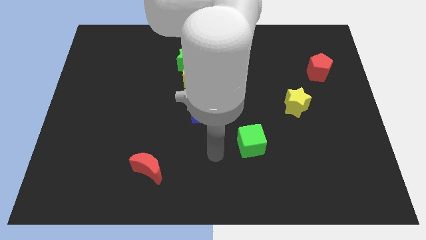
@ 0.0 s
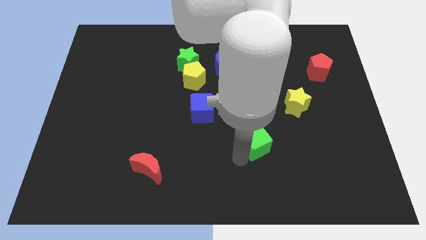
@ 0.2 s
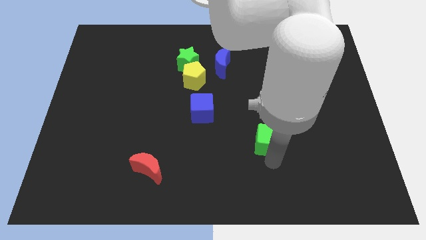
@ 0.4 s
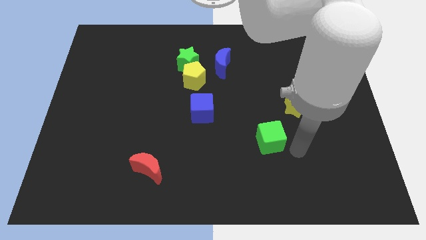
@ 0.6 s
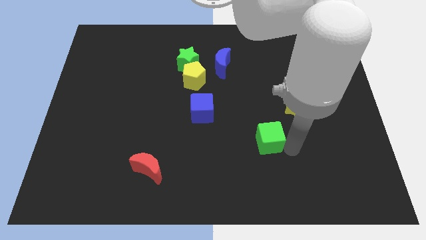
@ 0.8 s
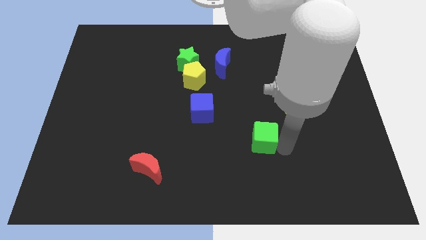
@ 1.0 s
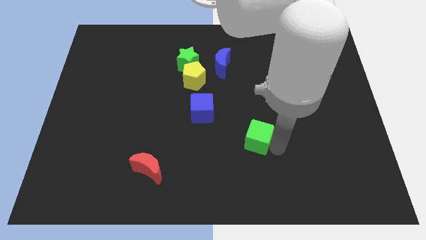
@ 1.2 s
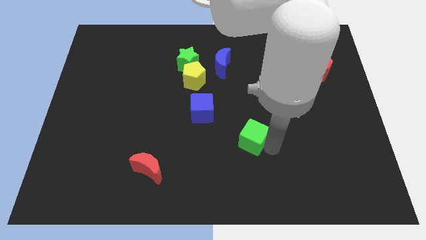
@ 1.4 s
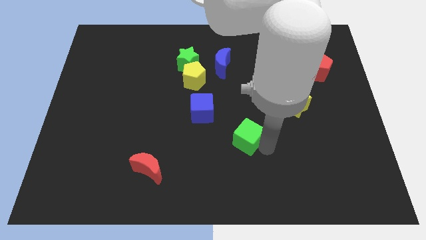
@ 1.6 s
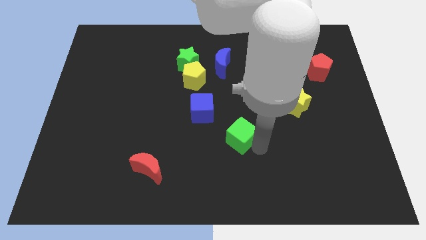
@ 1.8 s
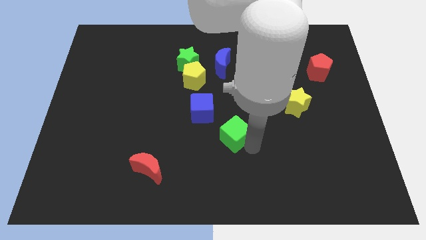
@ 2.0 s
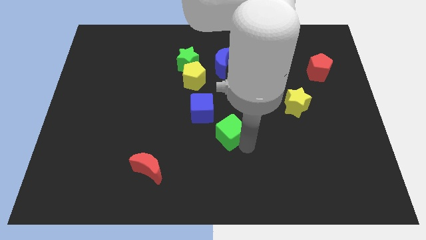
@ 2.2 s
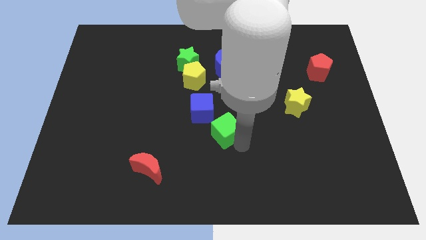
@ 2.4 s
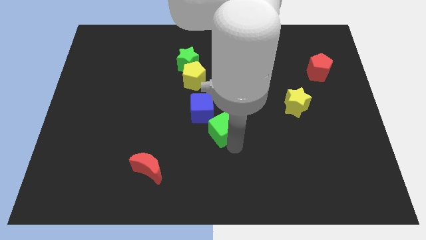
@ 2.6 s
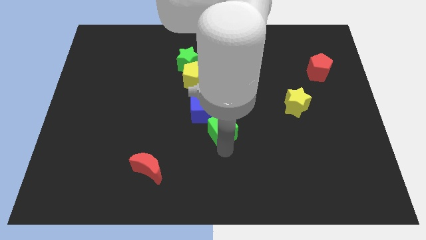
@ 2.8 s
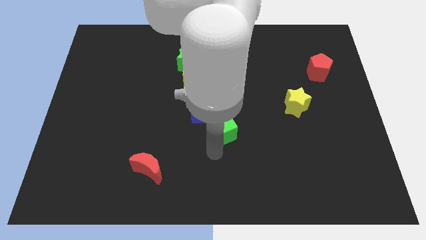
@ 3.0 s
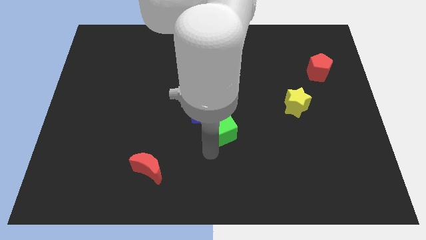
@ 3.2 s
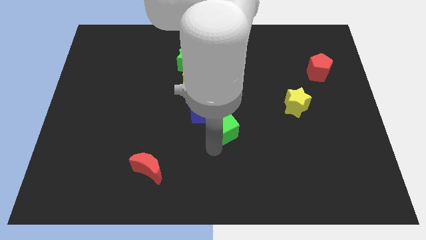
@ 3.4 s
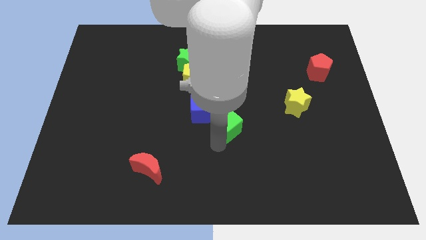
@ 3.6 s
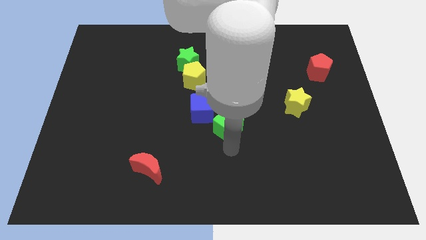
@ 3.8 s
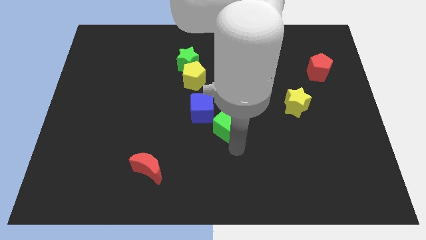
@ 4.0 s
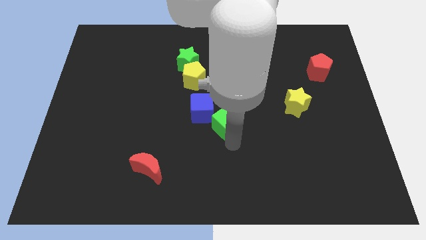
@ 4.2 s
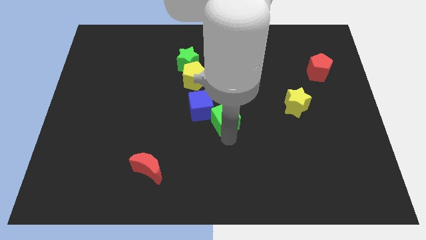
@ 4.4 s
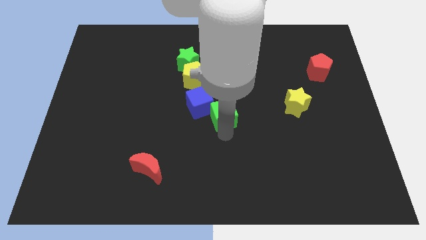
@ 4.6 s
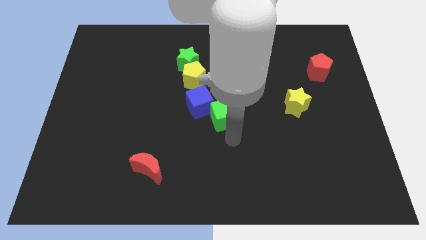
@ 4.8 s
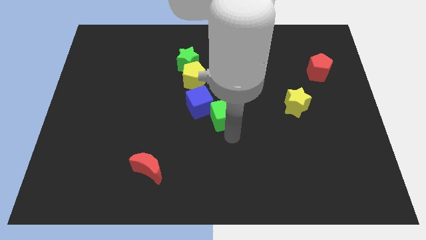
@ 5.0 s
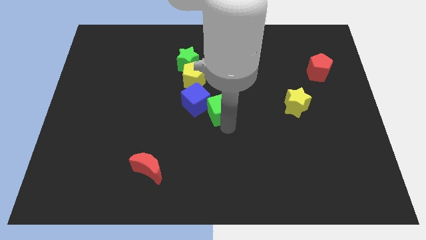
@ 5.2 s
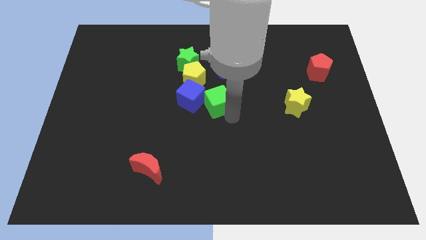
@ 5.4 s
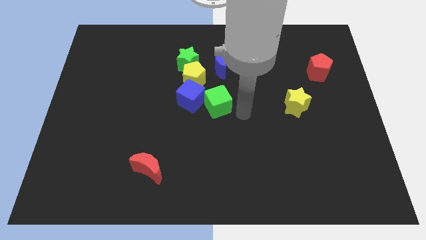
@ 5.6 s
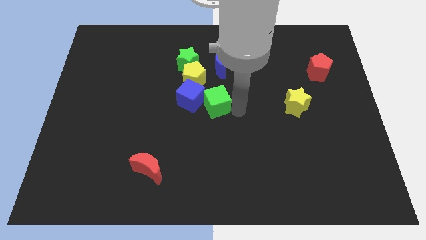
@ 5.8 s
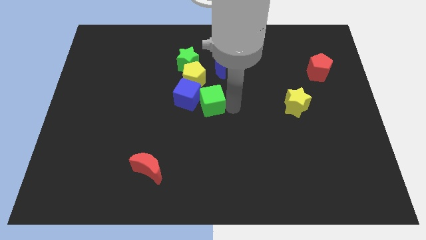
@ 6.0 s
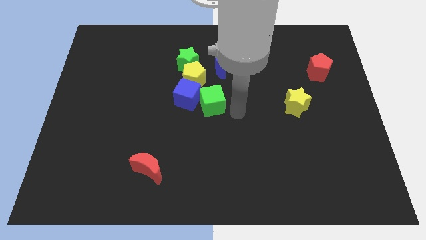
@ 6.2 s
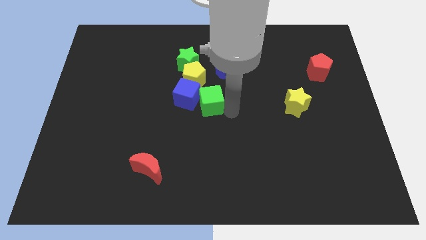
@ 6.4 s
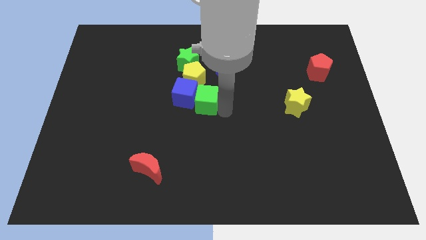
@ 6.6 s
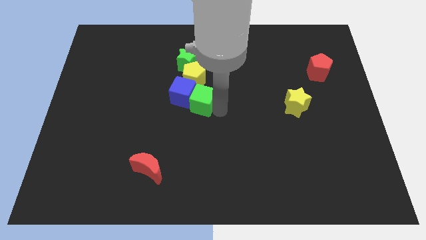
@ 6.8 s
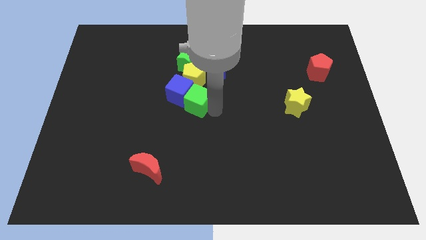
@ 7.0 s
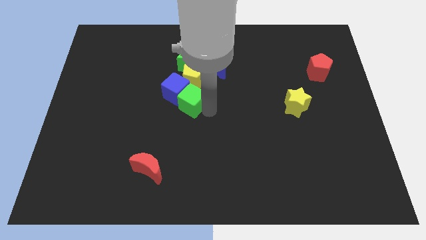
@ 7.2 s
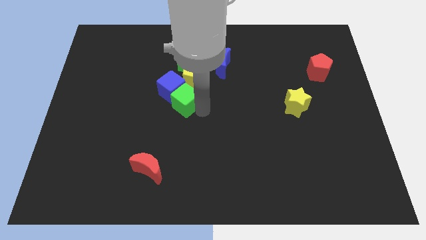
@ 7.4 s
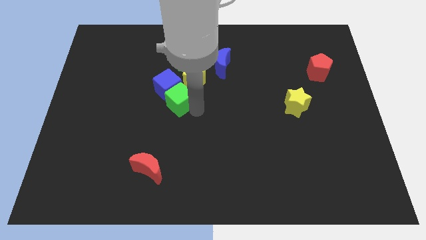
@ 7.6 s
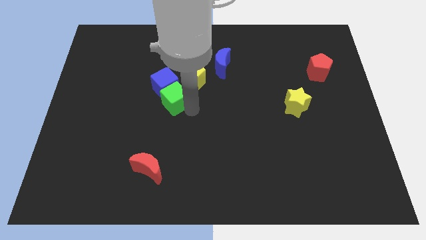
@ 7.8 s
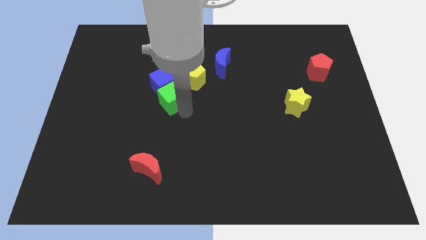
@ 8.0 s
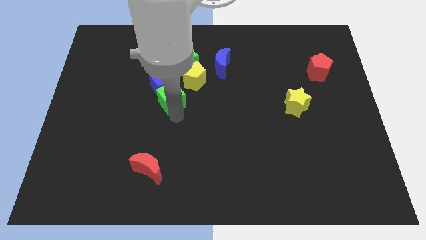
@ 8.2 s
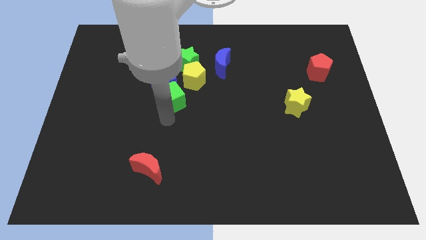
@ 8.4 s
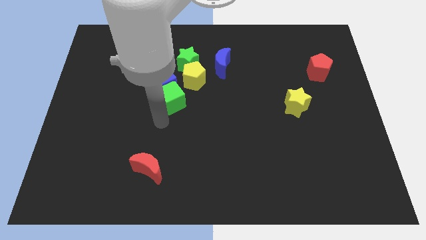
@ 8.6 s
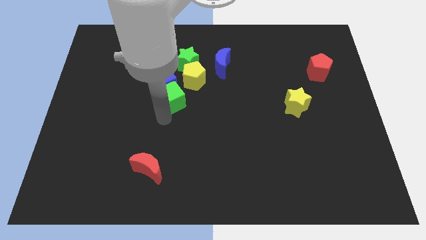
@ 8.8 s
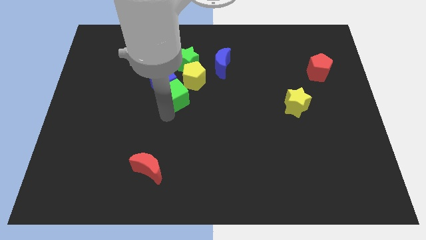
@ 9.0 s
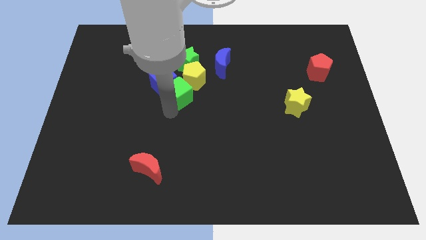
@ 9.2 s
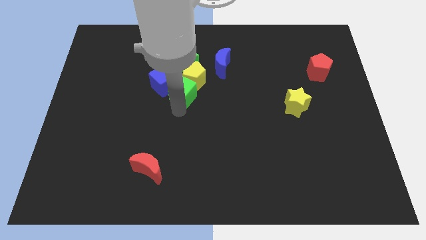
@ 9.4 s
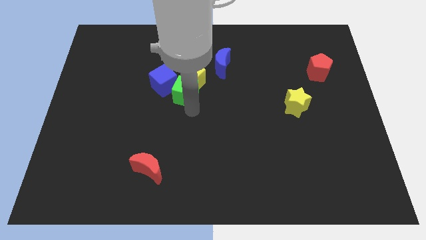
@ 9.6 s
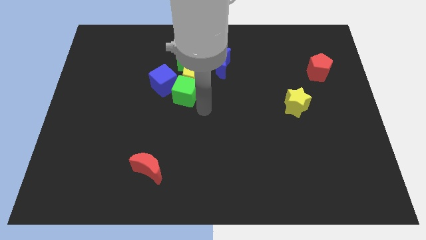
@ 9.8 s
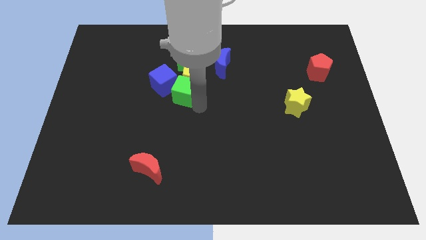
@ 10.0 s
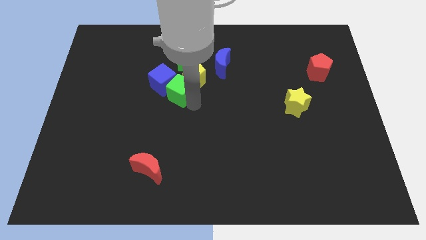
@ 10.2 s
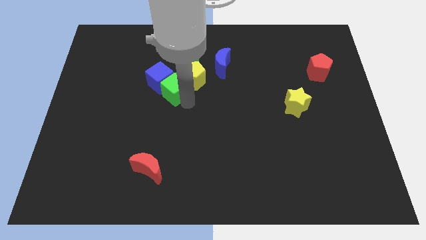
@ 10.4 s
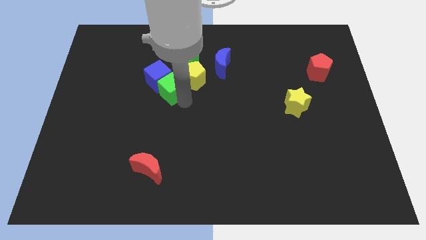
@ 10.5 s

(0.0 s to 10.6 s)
put the green cube diagonally down and to the left of the green star

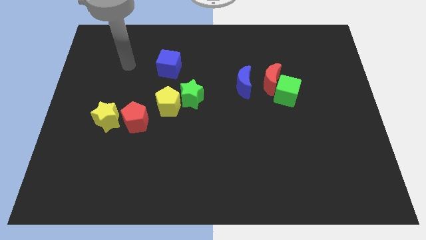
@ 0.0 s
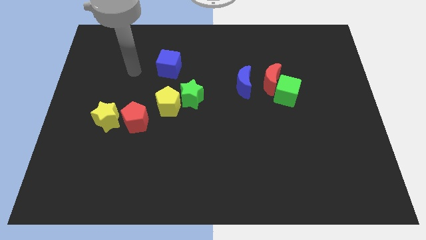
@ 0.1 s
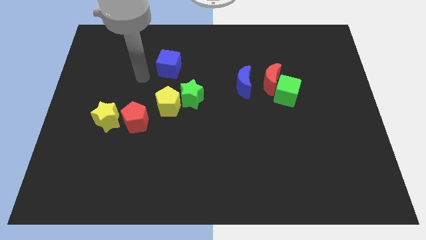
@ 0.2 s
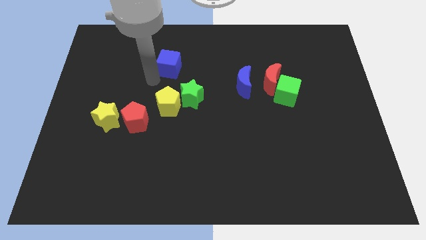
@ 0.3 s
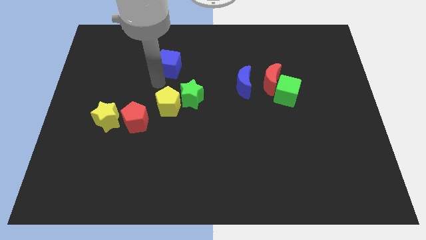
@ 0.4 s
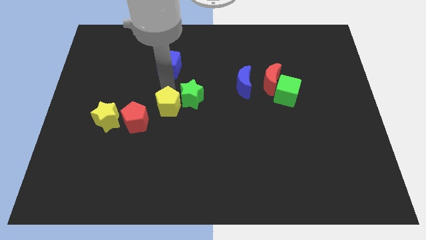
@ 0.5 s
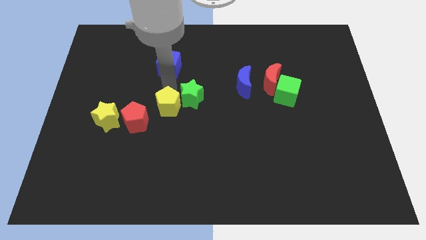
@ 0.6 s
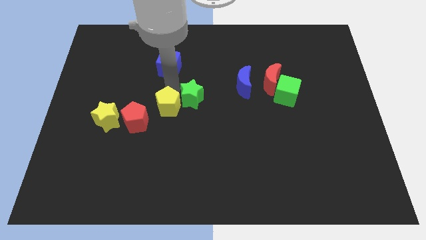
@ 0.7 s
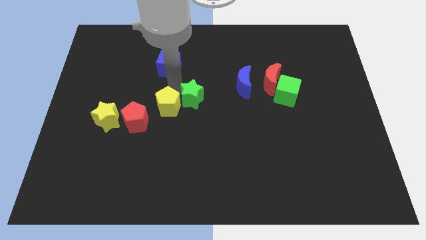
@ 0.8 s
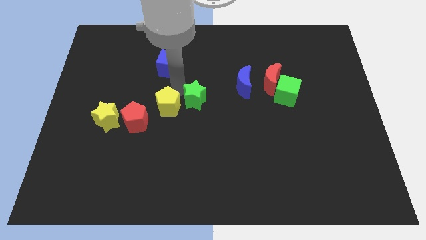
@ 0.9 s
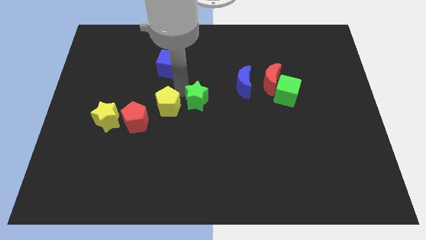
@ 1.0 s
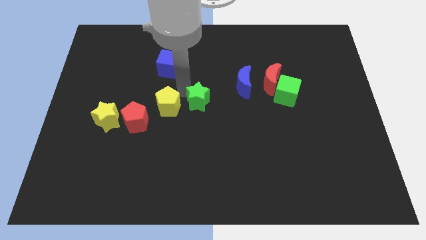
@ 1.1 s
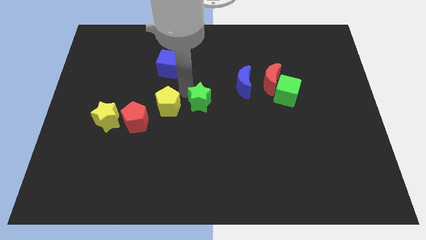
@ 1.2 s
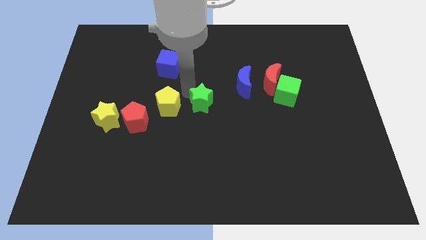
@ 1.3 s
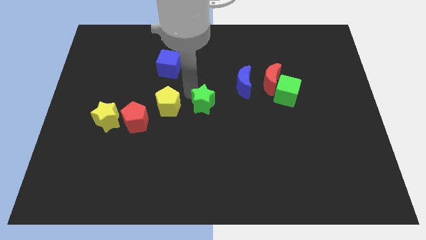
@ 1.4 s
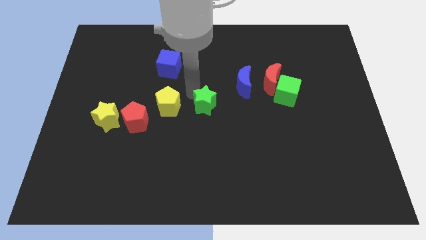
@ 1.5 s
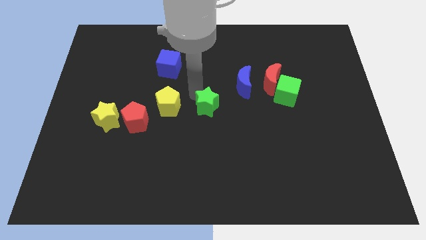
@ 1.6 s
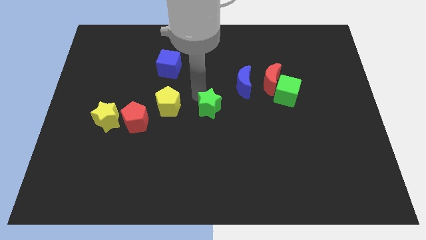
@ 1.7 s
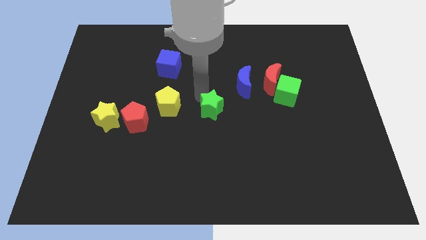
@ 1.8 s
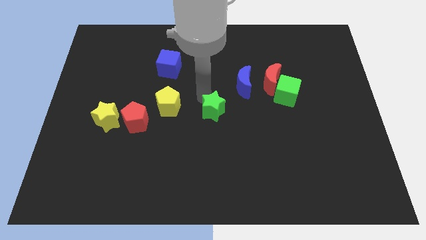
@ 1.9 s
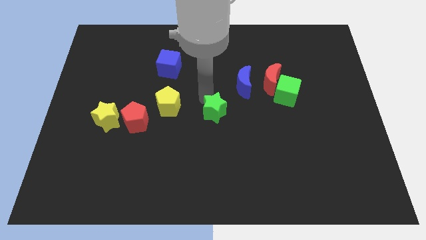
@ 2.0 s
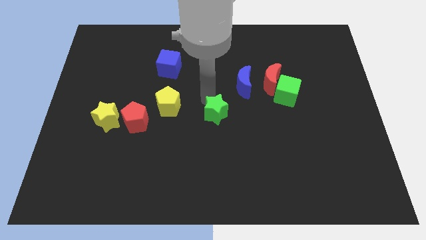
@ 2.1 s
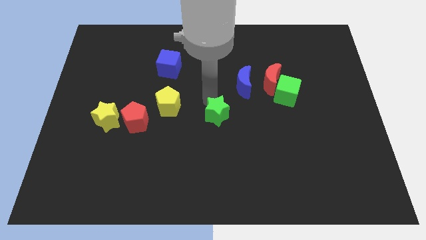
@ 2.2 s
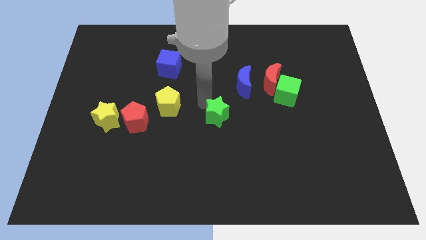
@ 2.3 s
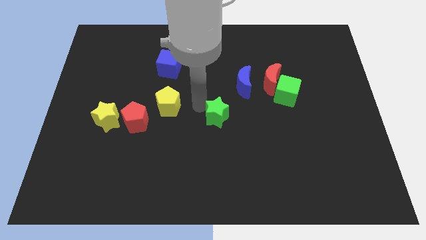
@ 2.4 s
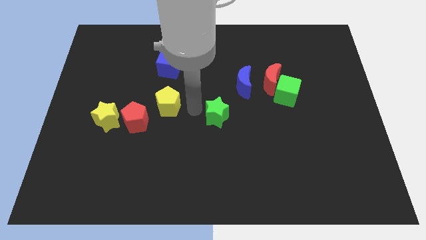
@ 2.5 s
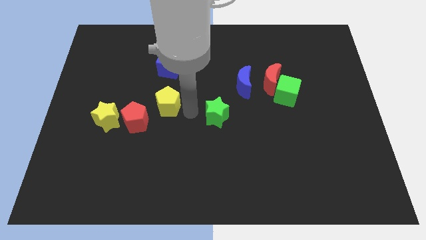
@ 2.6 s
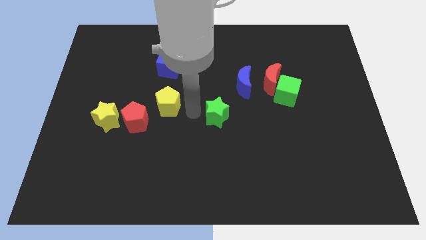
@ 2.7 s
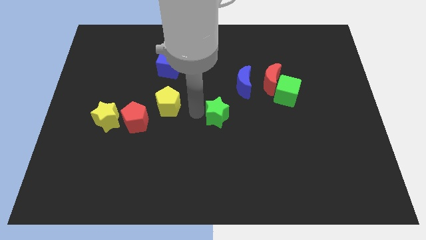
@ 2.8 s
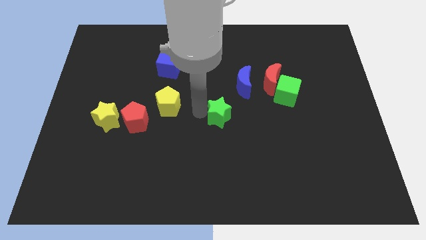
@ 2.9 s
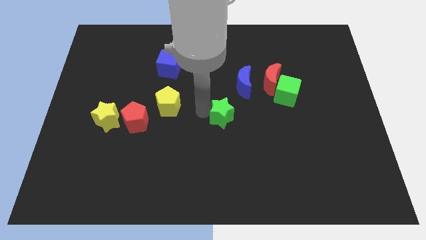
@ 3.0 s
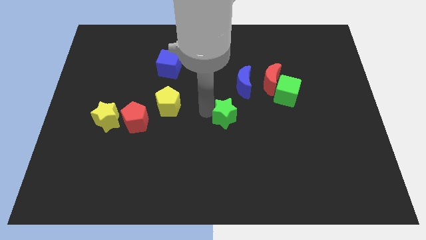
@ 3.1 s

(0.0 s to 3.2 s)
slide the green star to the bottom of the blue moon
